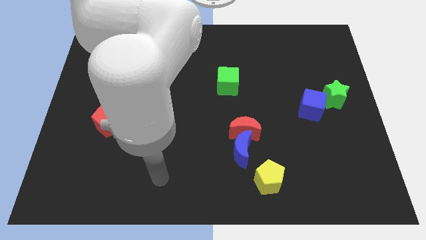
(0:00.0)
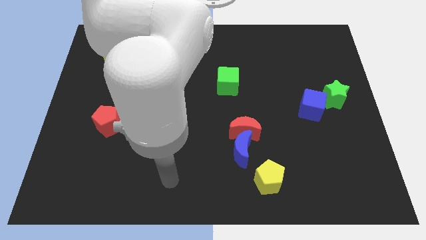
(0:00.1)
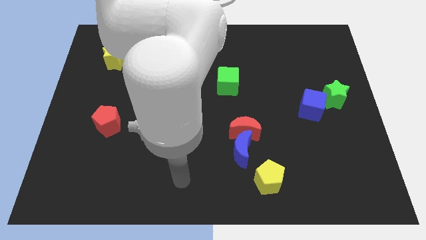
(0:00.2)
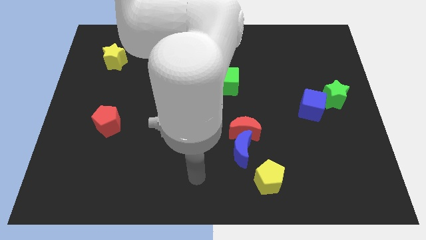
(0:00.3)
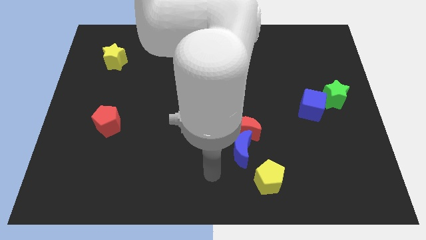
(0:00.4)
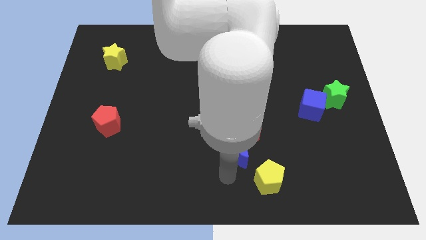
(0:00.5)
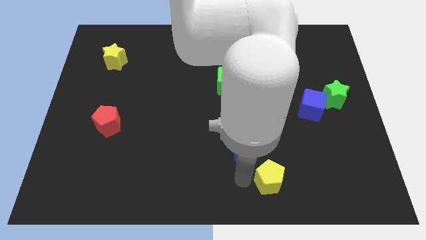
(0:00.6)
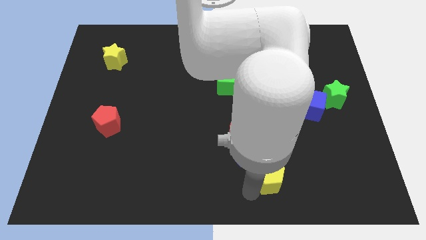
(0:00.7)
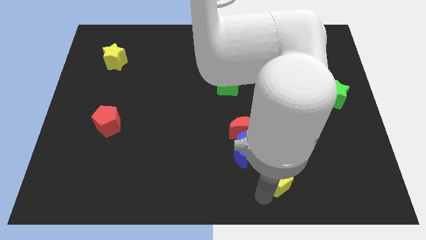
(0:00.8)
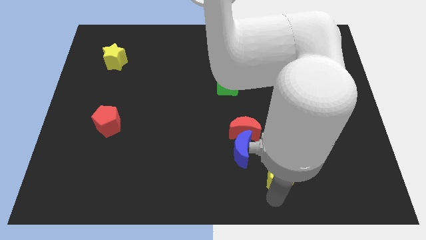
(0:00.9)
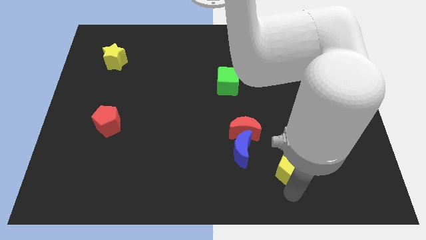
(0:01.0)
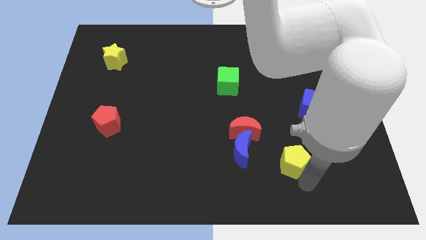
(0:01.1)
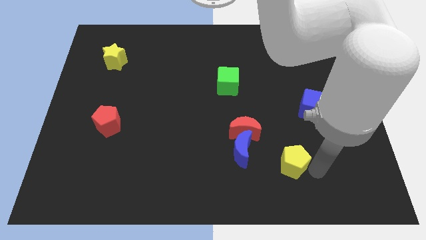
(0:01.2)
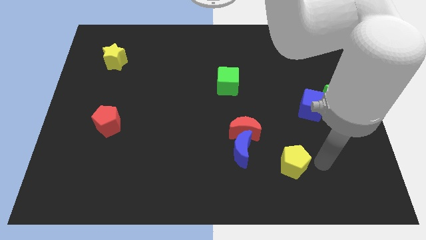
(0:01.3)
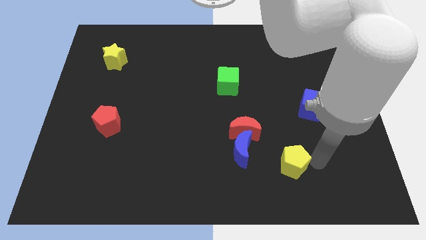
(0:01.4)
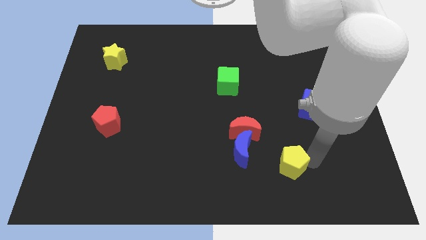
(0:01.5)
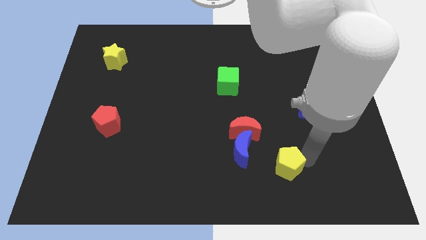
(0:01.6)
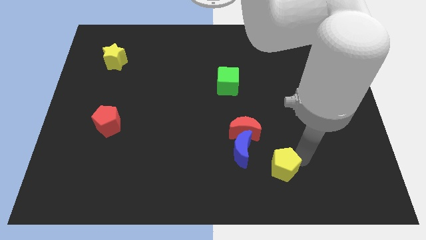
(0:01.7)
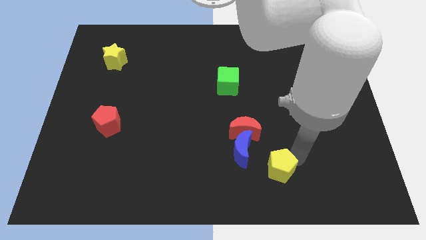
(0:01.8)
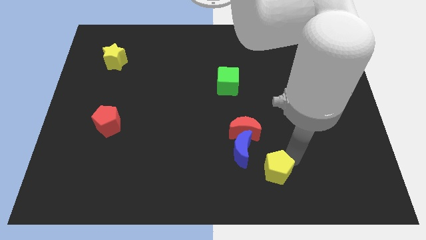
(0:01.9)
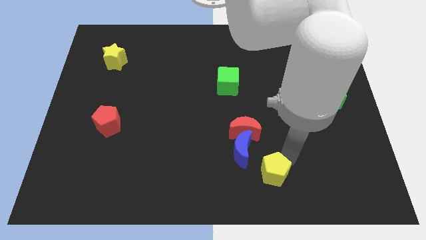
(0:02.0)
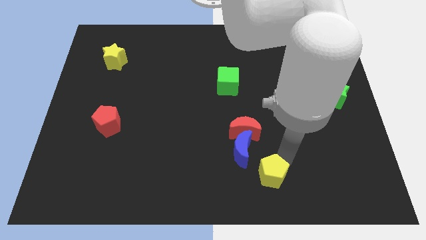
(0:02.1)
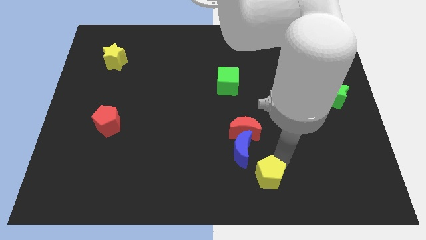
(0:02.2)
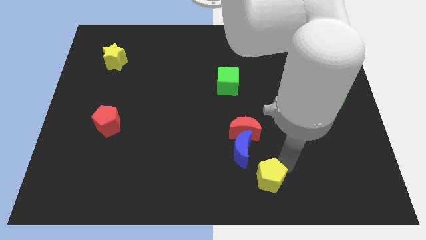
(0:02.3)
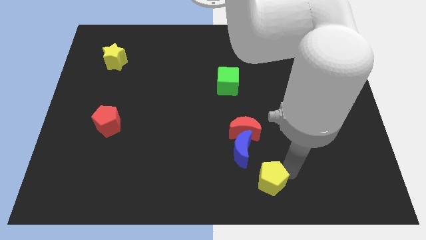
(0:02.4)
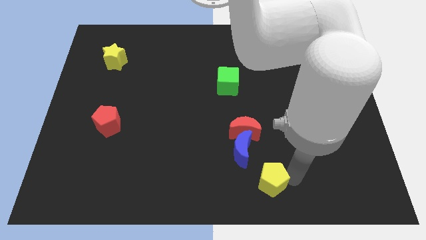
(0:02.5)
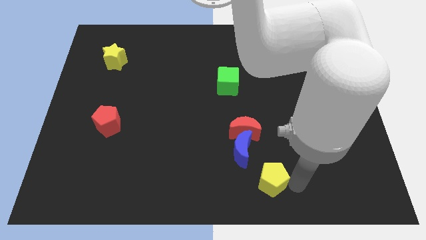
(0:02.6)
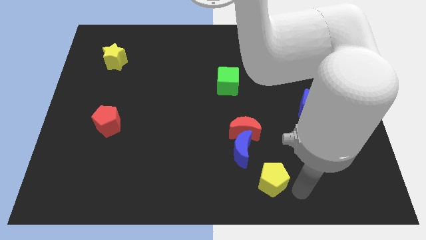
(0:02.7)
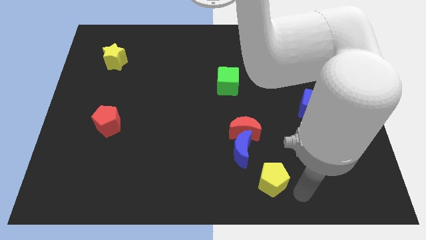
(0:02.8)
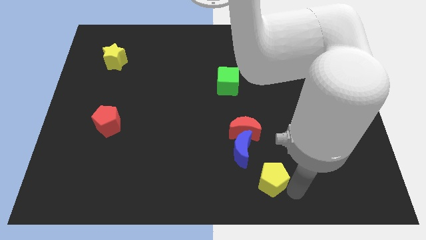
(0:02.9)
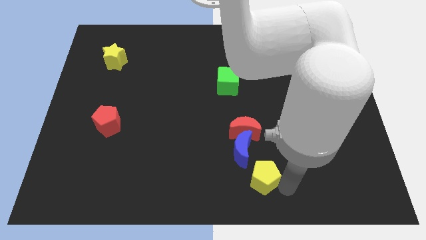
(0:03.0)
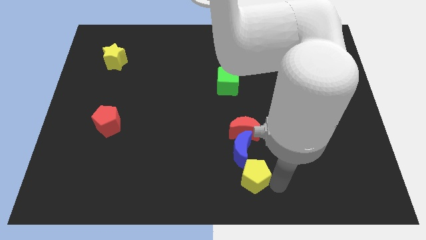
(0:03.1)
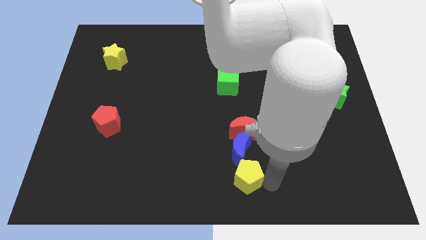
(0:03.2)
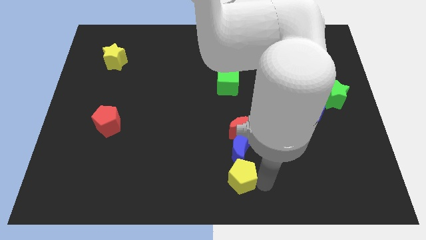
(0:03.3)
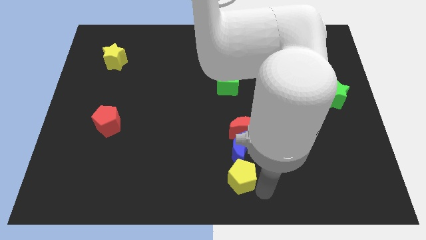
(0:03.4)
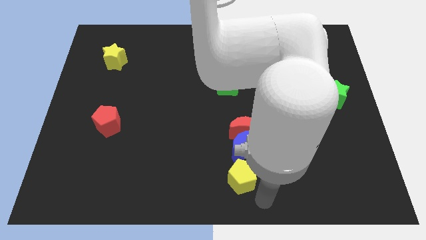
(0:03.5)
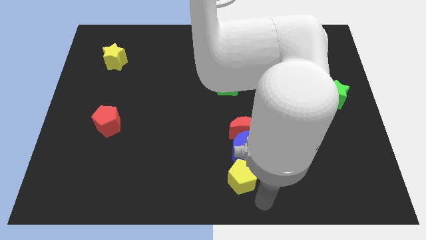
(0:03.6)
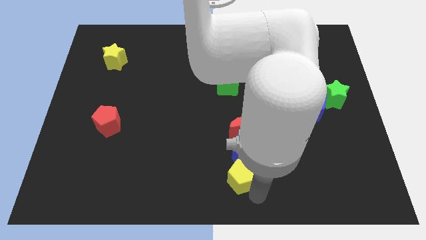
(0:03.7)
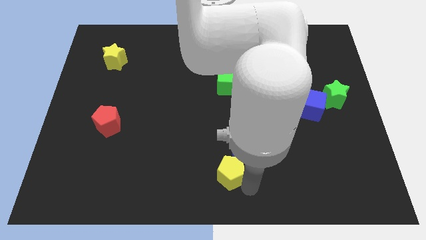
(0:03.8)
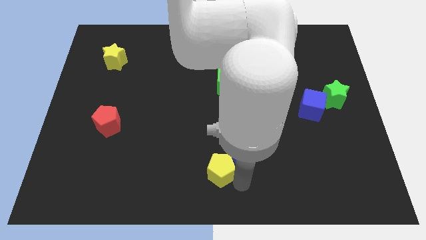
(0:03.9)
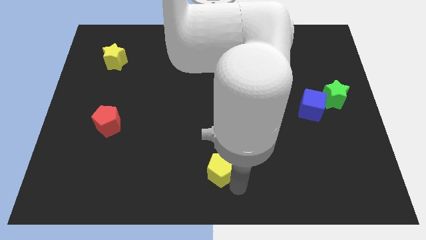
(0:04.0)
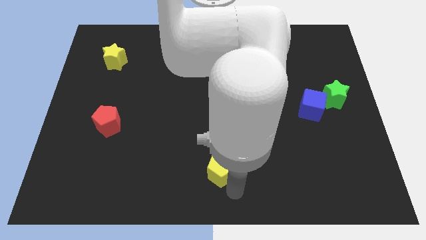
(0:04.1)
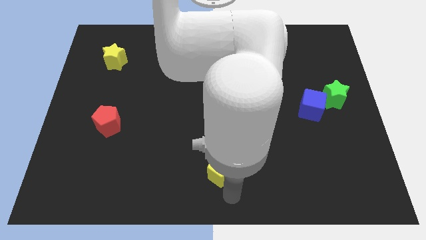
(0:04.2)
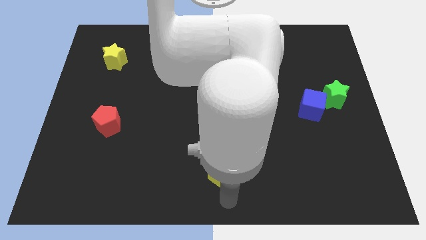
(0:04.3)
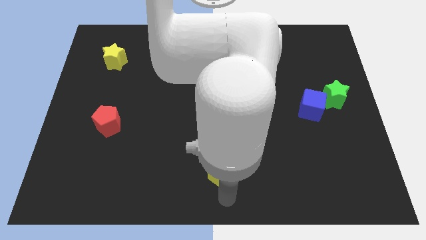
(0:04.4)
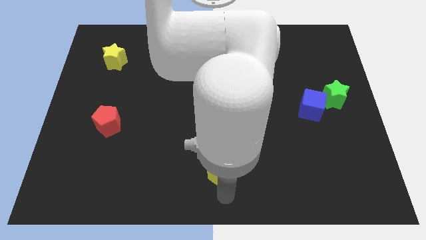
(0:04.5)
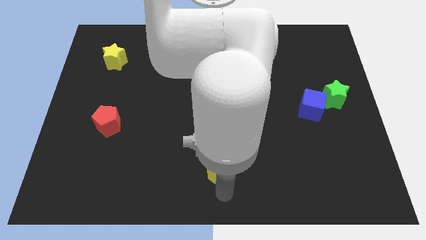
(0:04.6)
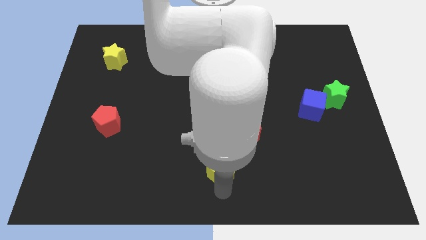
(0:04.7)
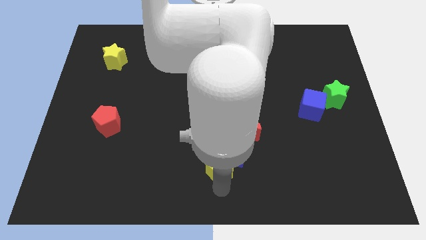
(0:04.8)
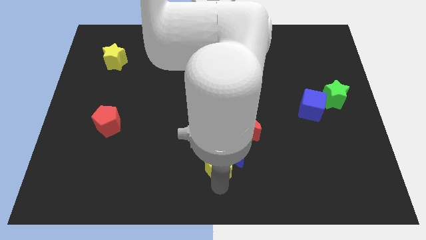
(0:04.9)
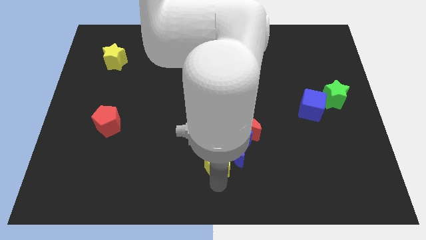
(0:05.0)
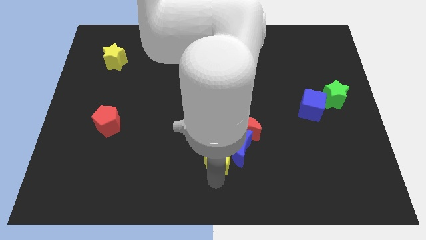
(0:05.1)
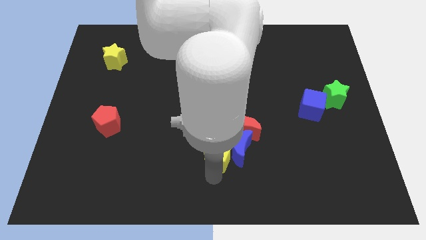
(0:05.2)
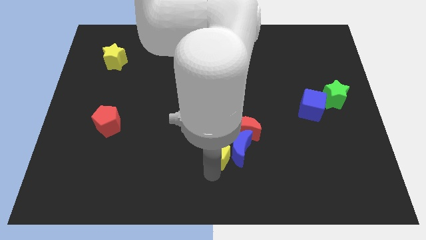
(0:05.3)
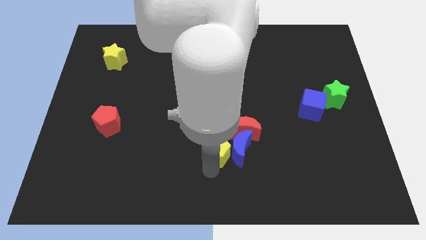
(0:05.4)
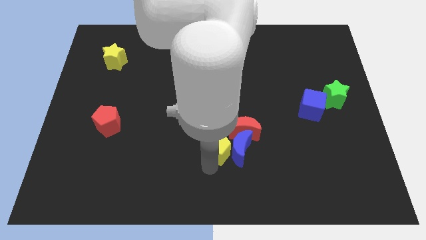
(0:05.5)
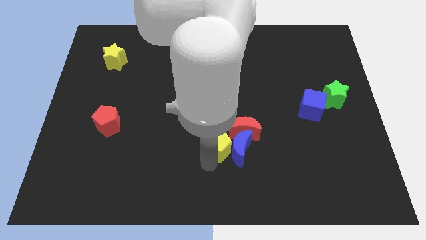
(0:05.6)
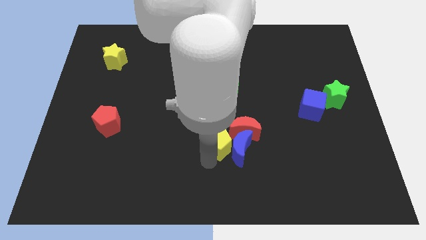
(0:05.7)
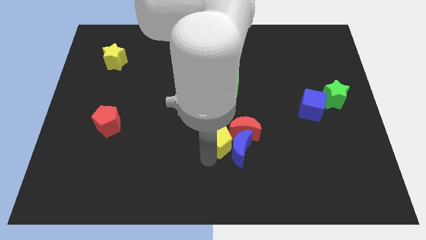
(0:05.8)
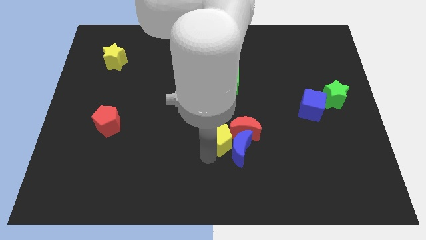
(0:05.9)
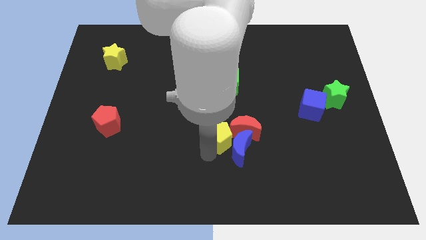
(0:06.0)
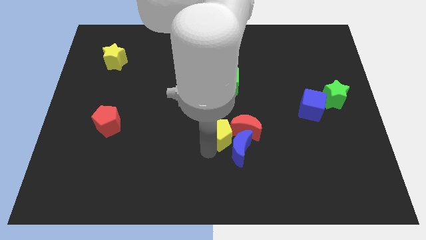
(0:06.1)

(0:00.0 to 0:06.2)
move the yellow pentagon to the bottom of the green cube

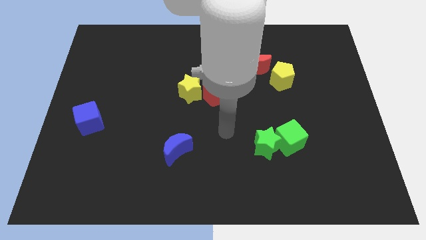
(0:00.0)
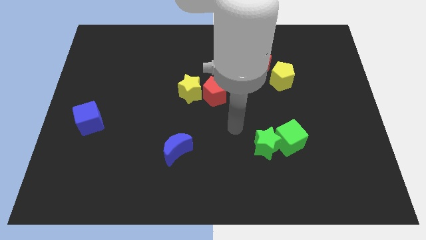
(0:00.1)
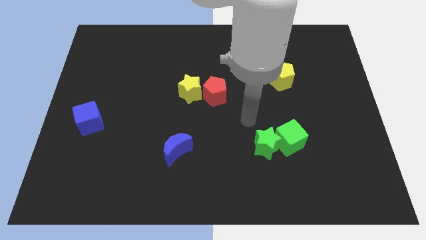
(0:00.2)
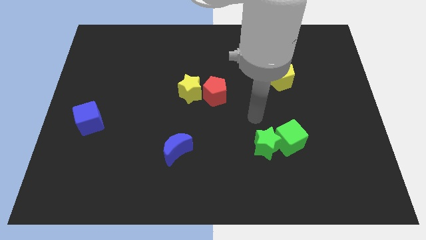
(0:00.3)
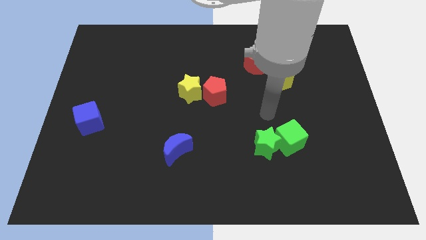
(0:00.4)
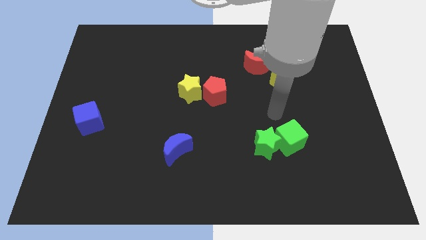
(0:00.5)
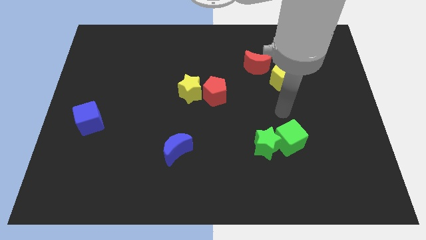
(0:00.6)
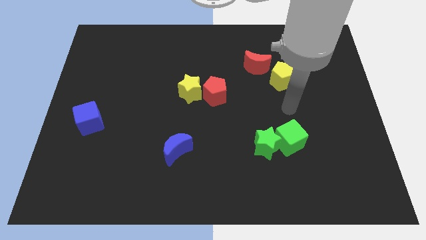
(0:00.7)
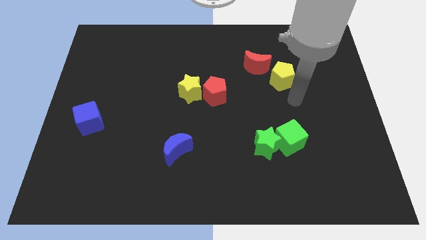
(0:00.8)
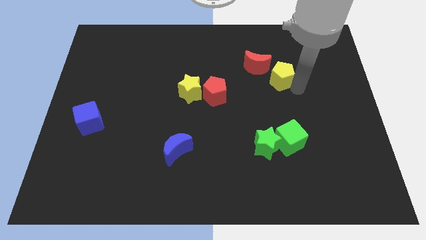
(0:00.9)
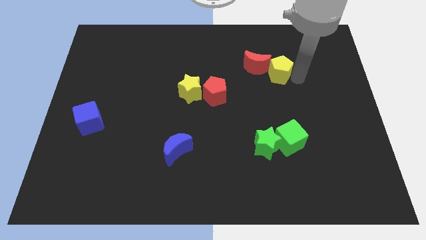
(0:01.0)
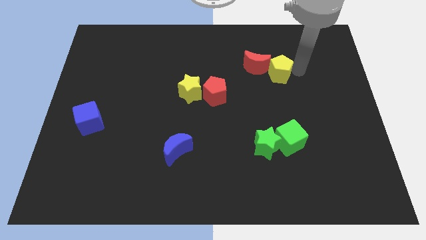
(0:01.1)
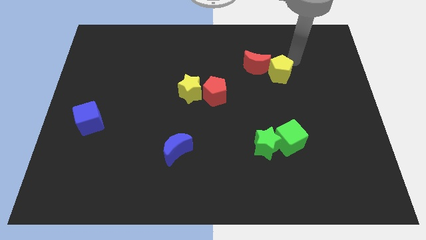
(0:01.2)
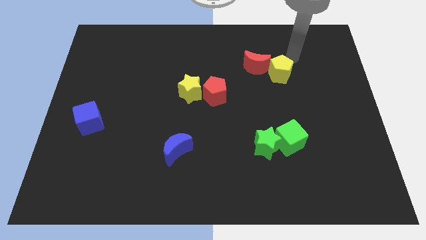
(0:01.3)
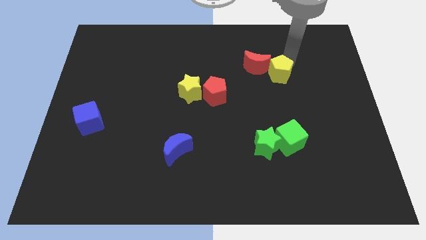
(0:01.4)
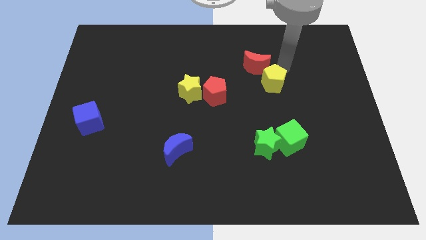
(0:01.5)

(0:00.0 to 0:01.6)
slide the yellow pentagon to the bottom side of the red moon
